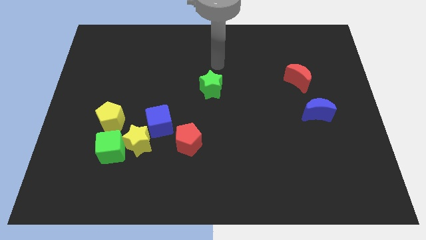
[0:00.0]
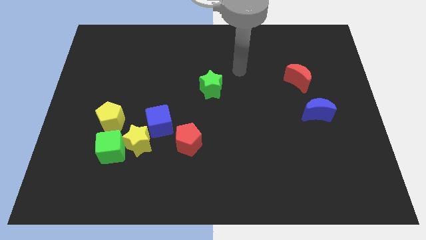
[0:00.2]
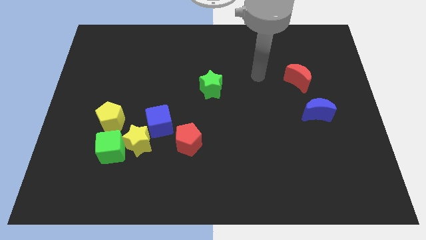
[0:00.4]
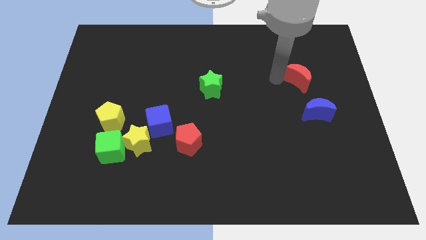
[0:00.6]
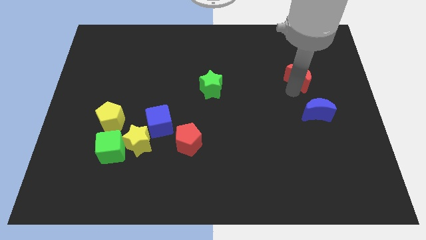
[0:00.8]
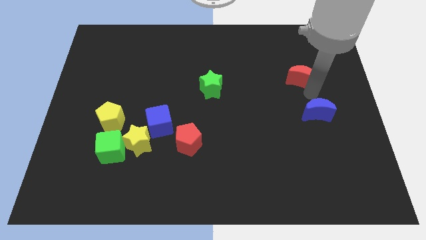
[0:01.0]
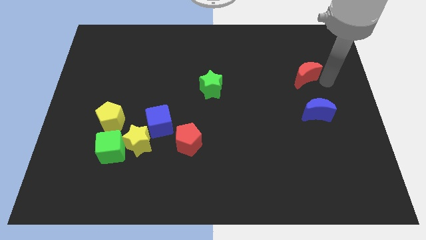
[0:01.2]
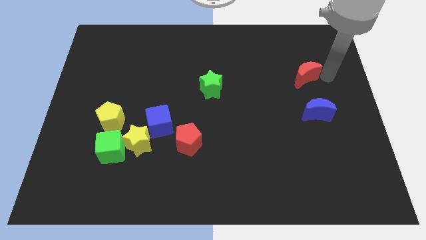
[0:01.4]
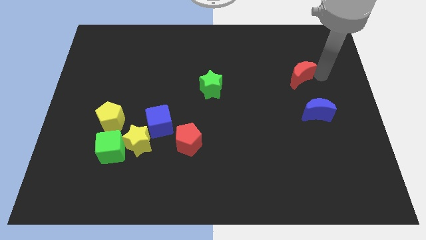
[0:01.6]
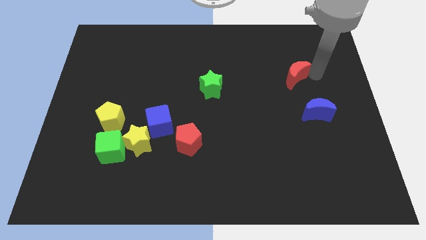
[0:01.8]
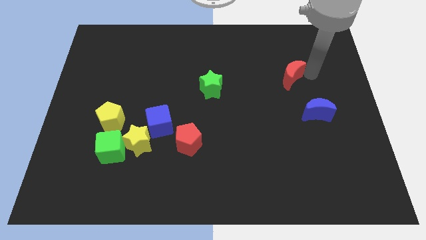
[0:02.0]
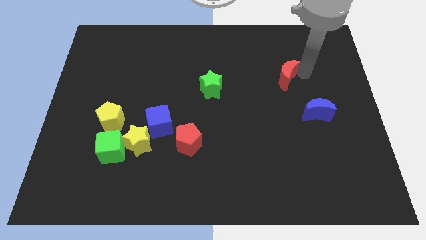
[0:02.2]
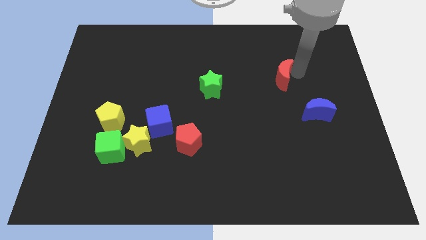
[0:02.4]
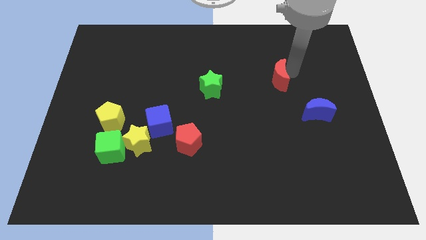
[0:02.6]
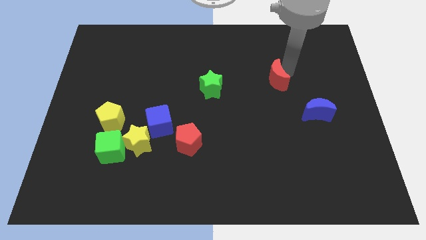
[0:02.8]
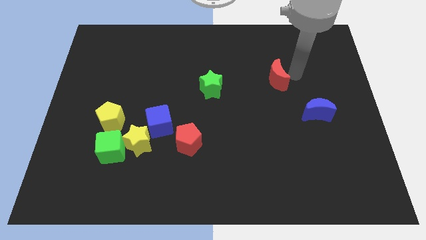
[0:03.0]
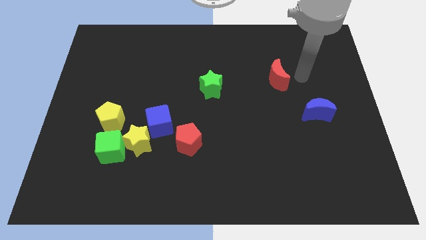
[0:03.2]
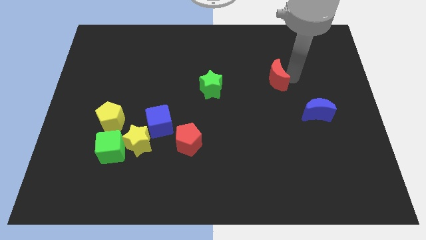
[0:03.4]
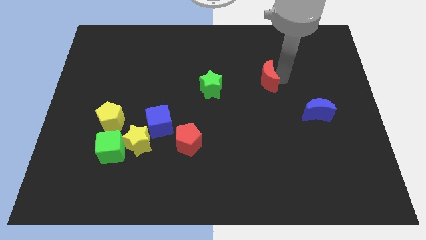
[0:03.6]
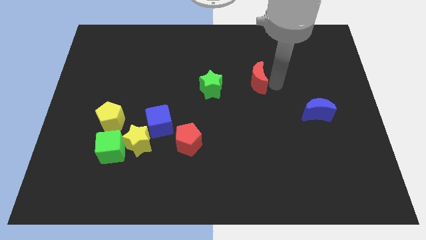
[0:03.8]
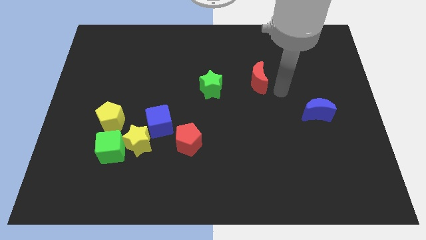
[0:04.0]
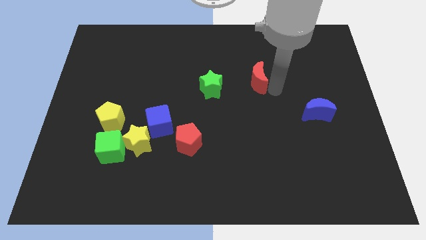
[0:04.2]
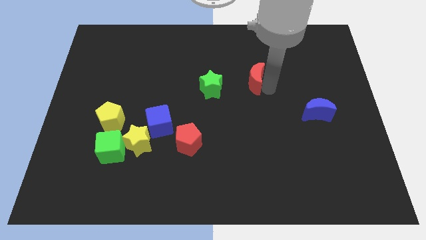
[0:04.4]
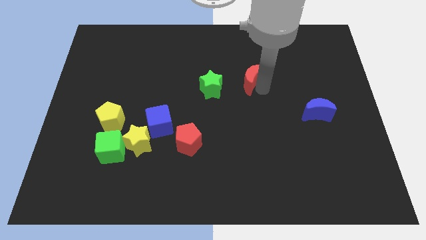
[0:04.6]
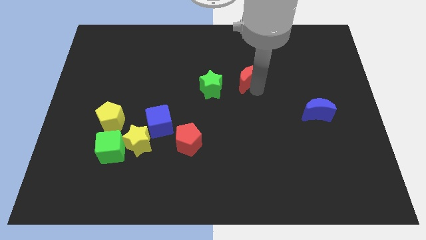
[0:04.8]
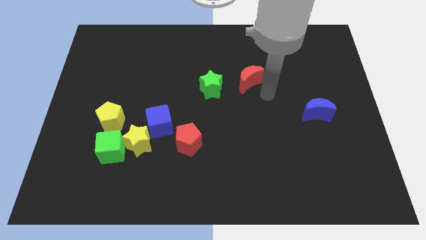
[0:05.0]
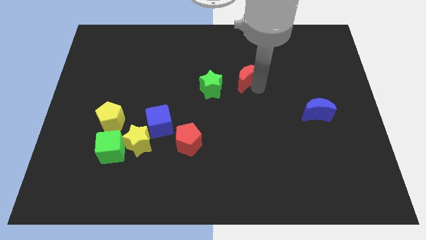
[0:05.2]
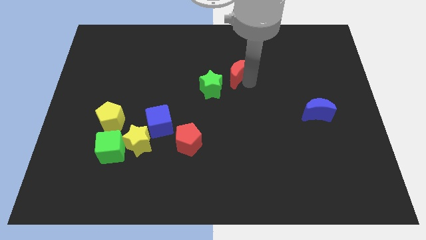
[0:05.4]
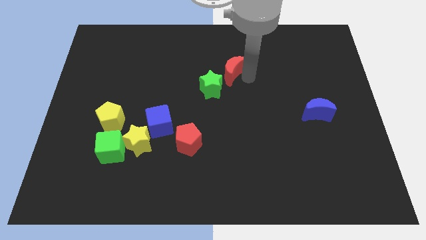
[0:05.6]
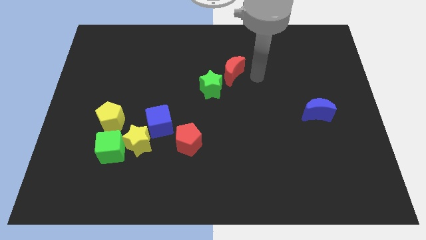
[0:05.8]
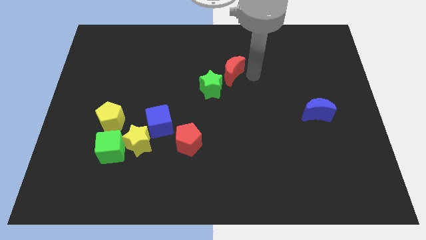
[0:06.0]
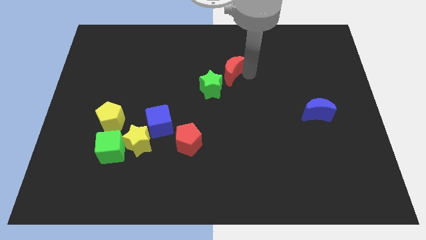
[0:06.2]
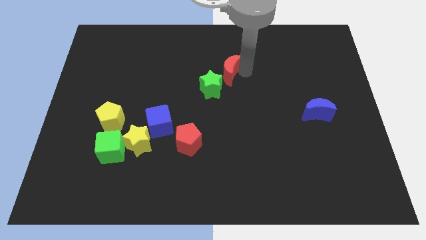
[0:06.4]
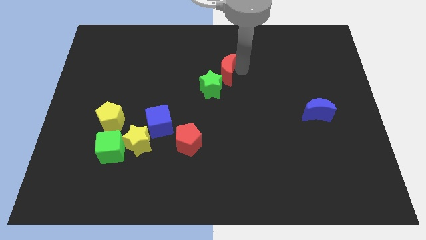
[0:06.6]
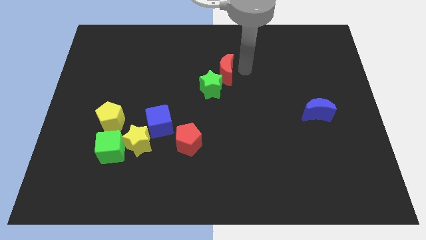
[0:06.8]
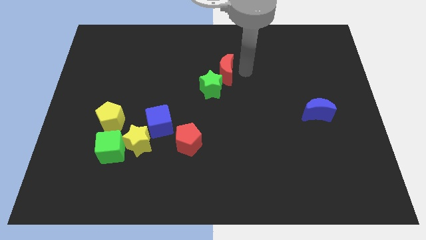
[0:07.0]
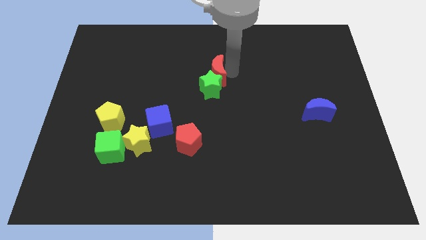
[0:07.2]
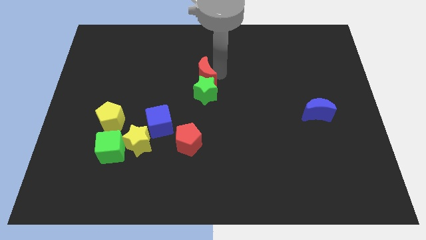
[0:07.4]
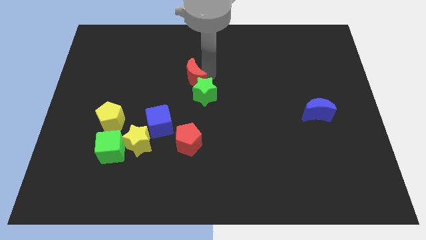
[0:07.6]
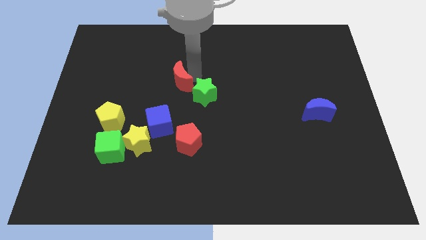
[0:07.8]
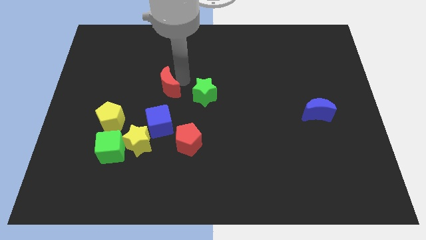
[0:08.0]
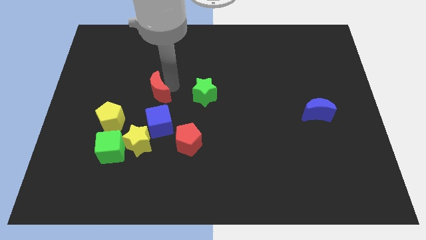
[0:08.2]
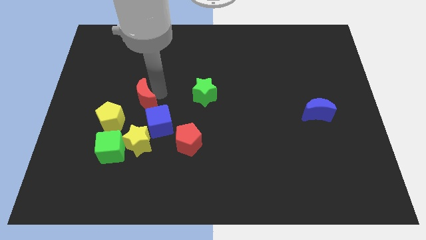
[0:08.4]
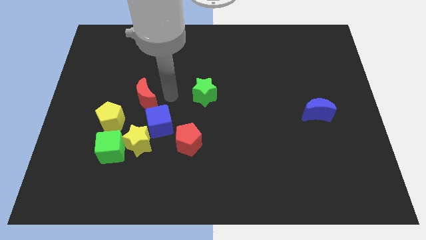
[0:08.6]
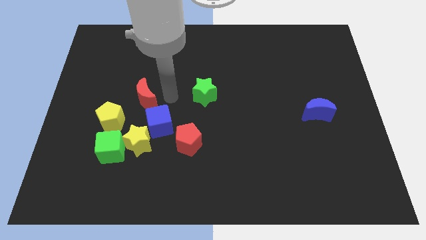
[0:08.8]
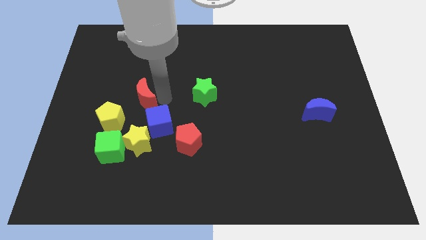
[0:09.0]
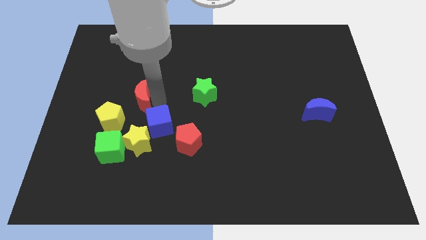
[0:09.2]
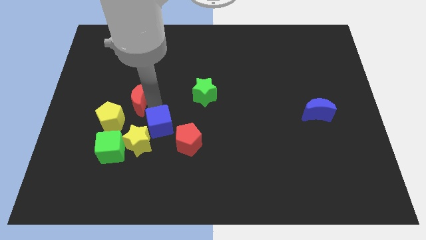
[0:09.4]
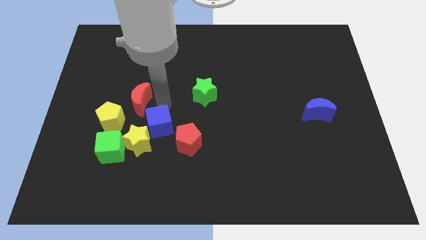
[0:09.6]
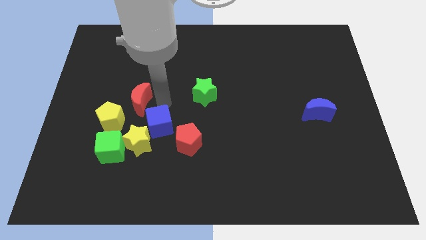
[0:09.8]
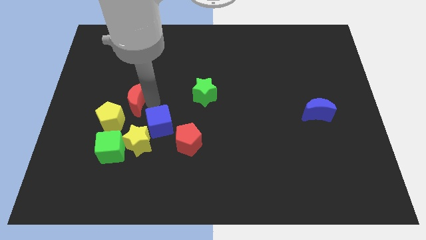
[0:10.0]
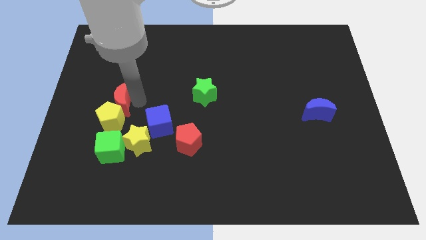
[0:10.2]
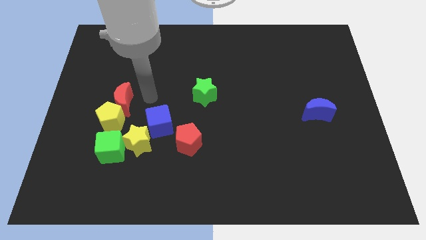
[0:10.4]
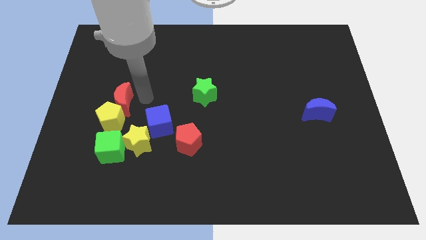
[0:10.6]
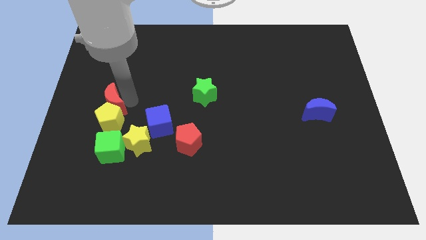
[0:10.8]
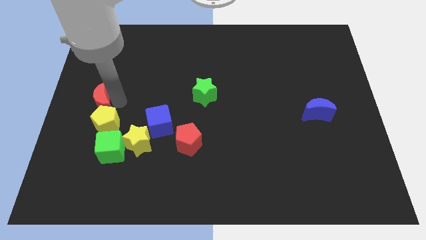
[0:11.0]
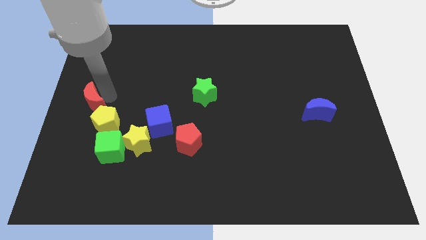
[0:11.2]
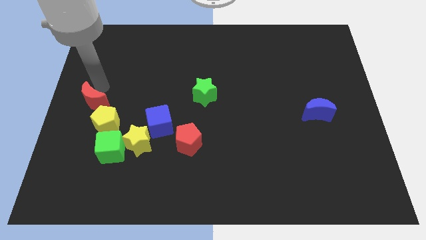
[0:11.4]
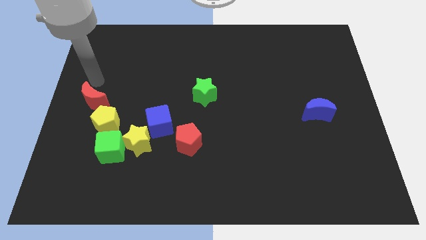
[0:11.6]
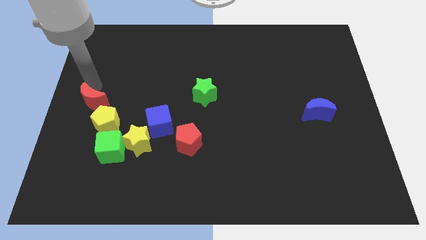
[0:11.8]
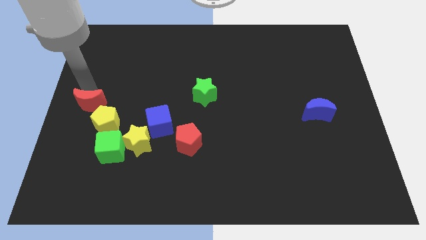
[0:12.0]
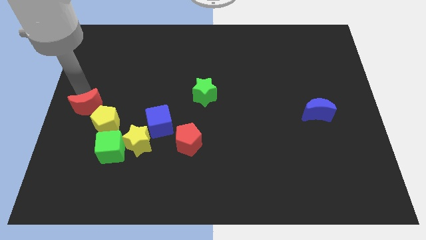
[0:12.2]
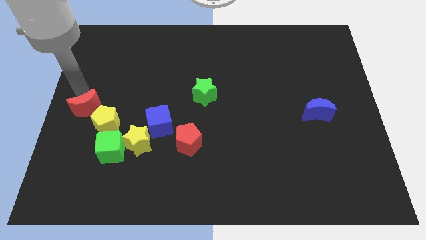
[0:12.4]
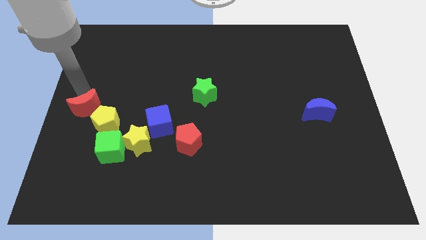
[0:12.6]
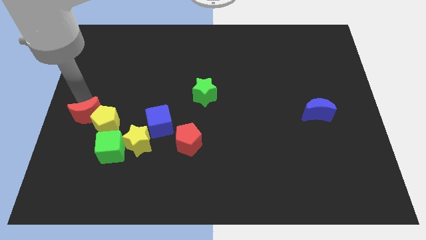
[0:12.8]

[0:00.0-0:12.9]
move the red moon to the top left of the green cube
